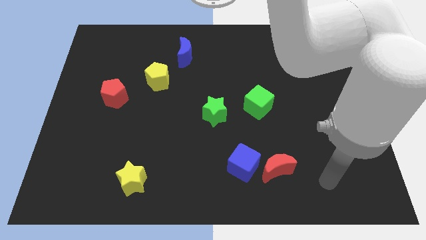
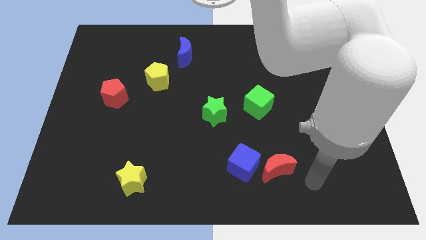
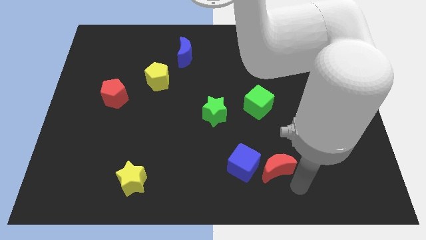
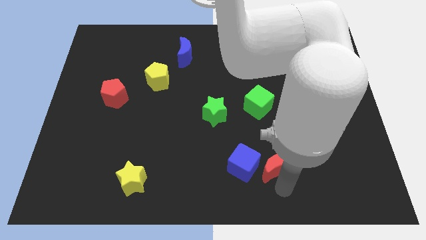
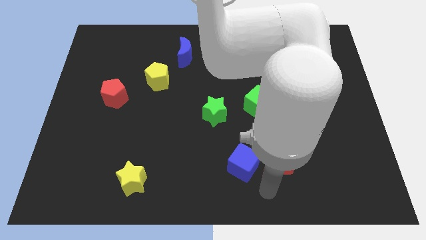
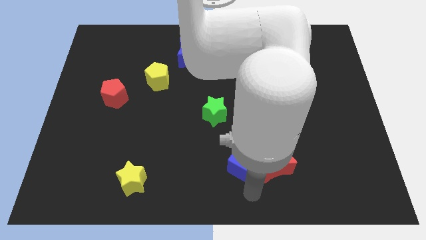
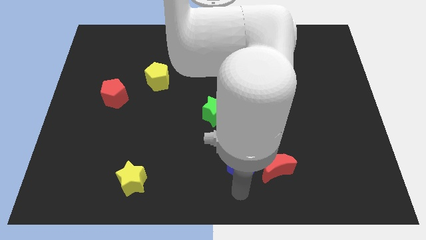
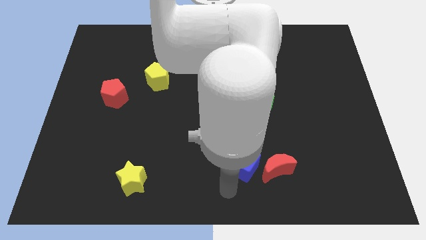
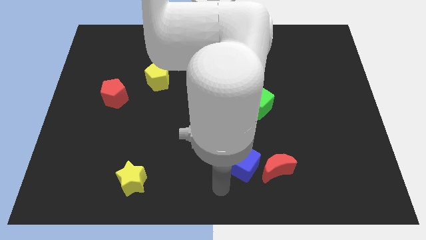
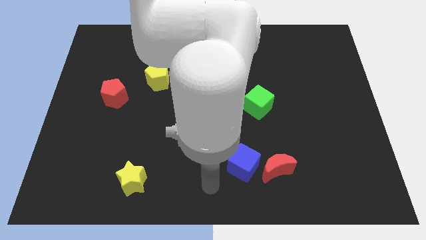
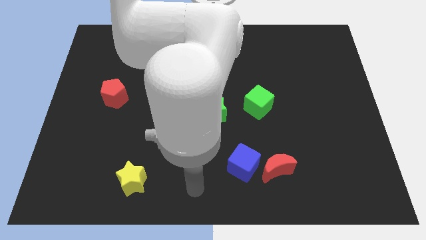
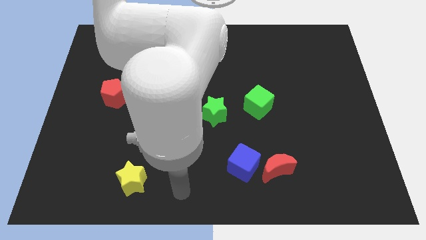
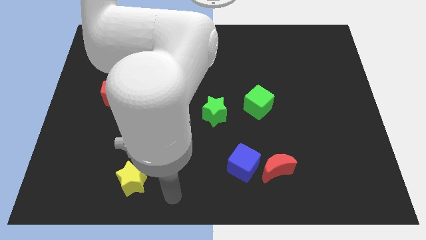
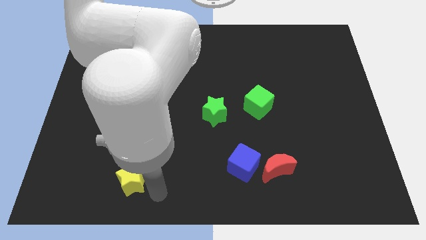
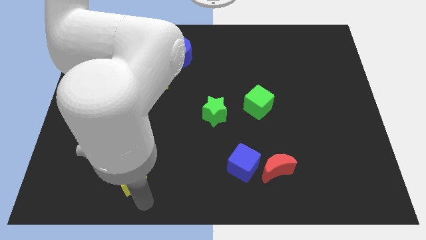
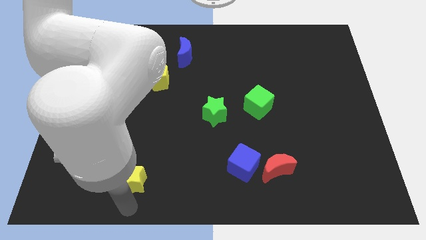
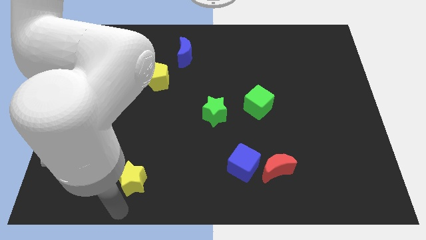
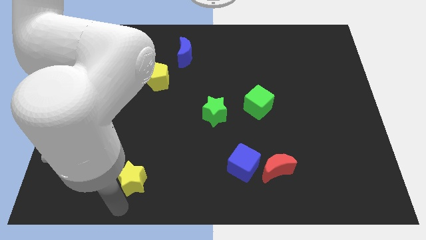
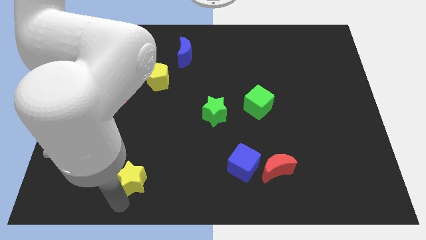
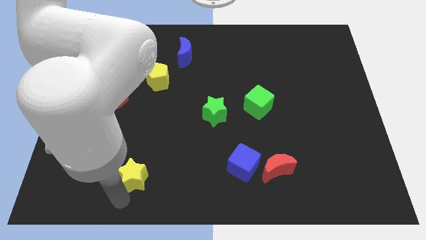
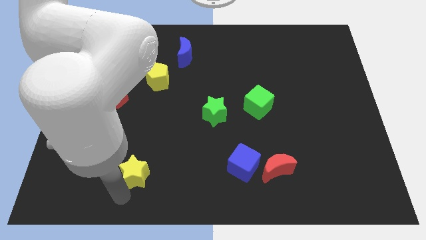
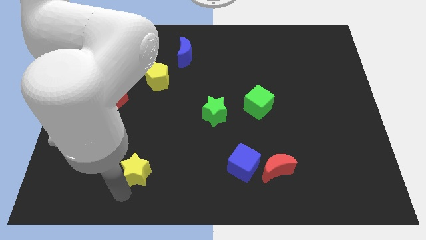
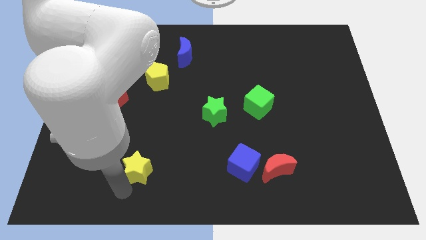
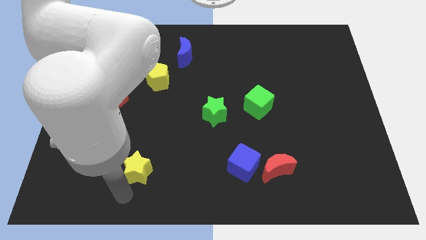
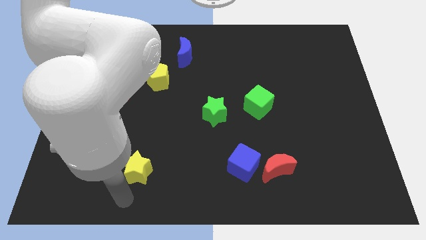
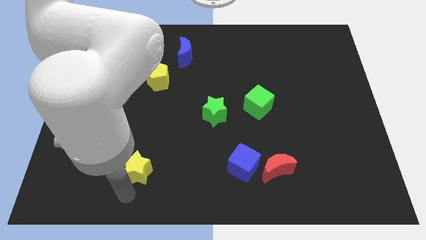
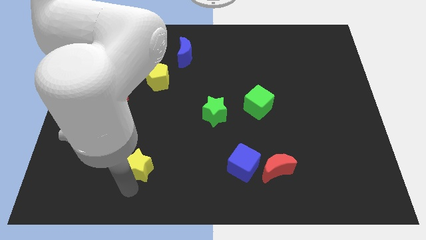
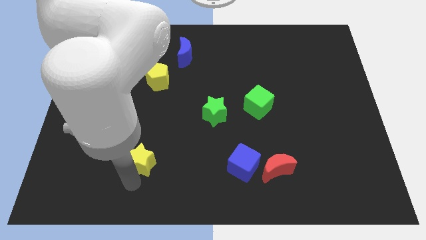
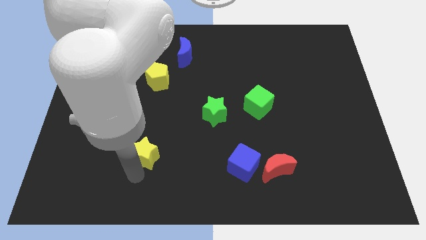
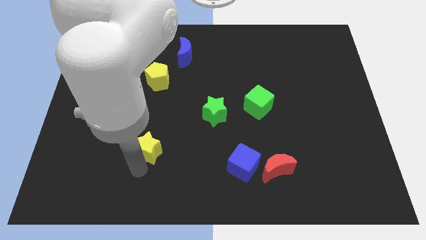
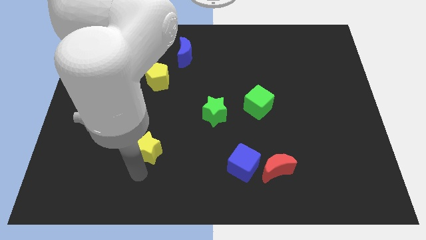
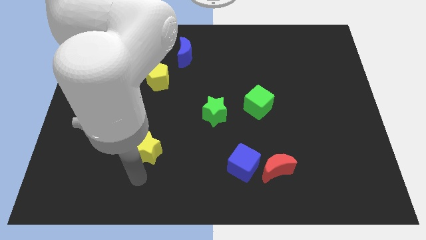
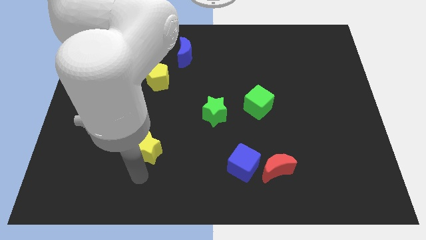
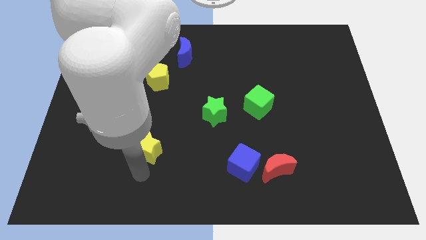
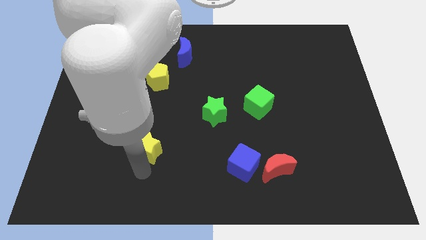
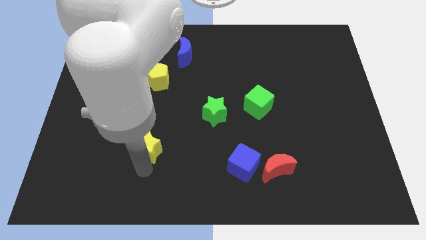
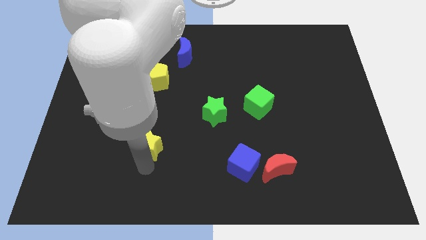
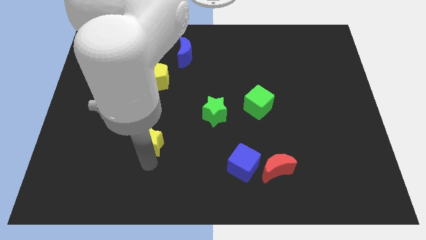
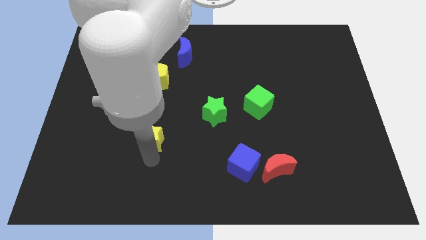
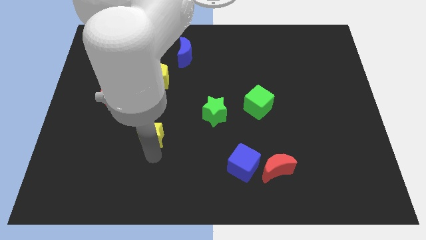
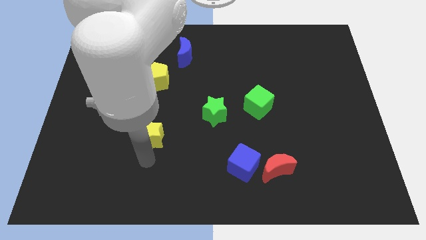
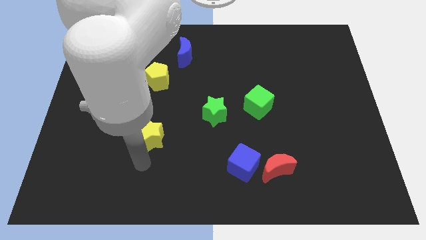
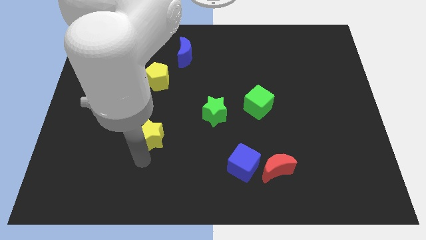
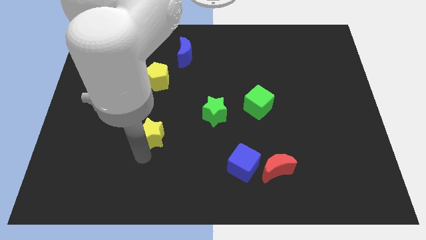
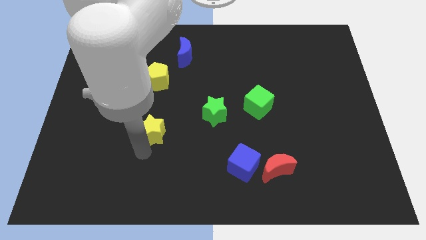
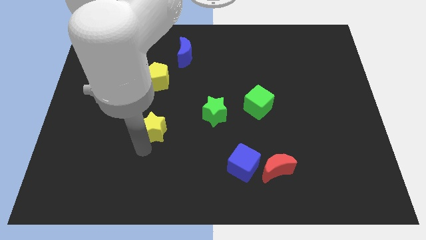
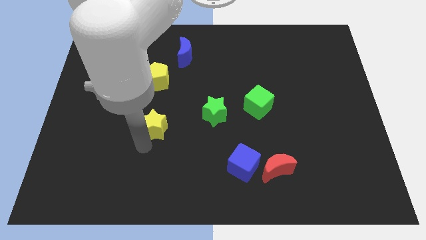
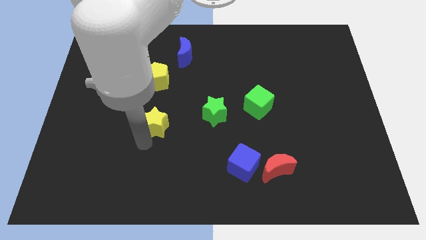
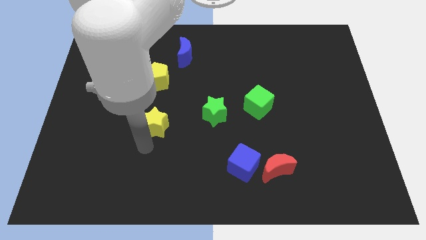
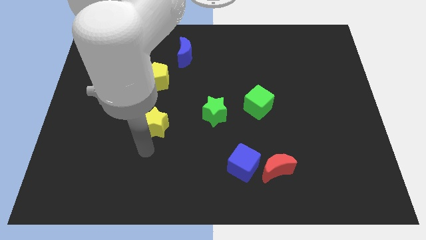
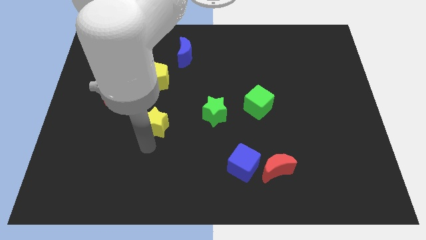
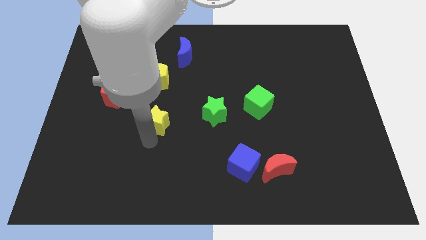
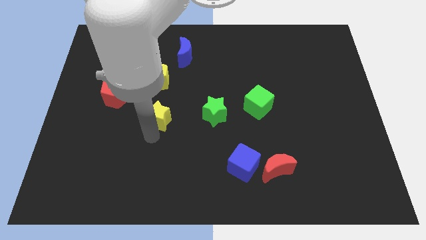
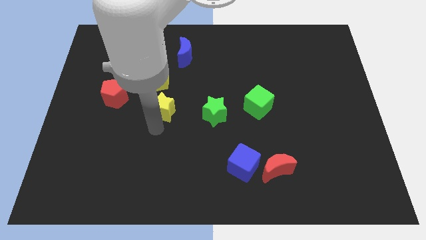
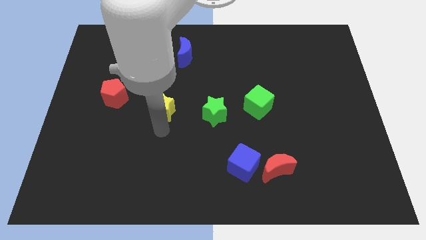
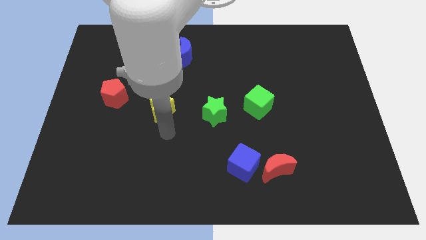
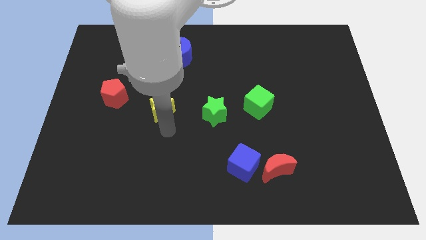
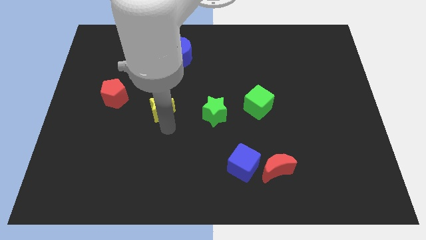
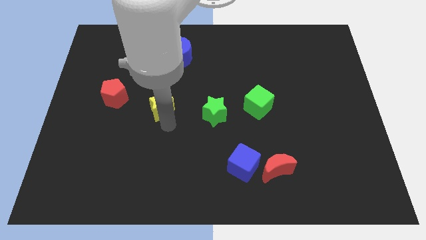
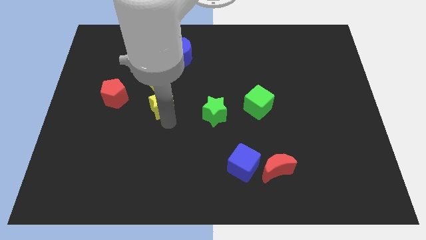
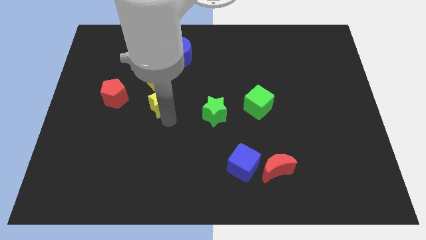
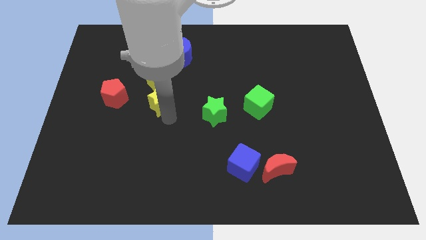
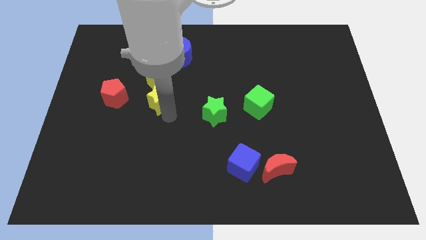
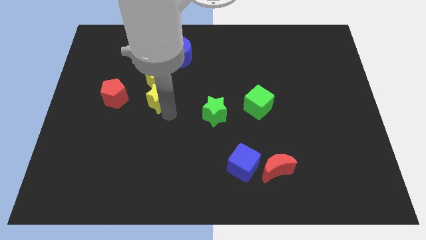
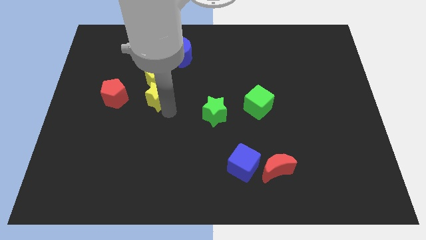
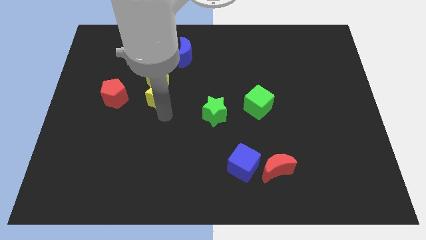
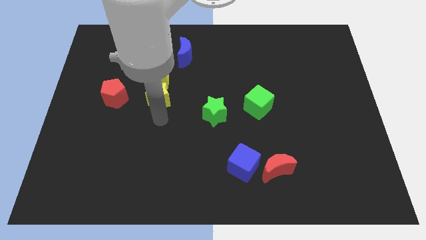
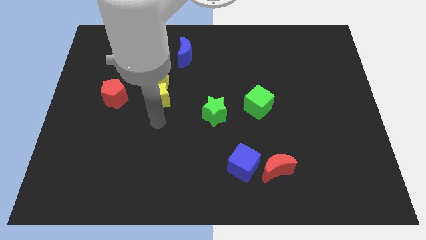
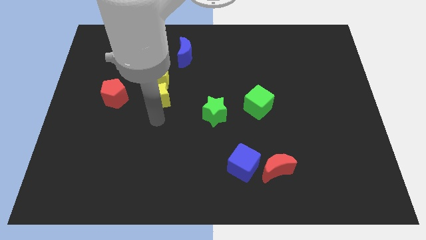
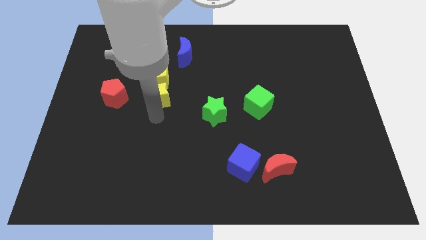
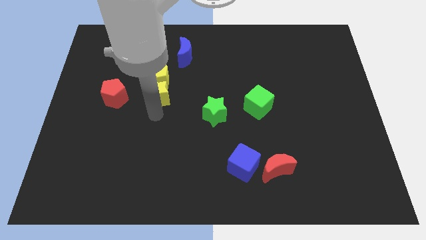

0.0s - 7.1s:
put the yellow star next to the yellow pentagon

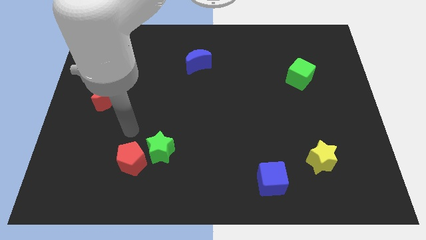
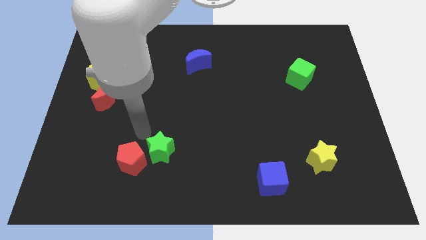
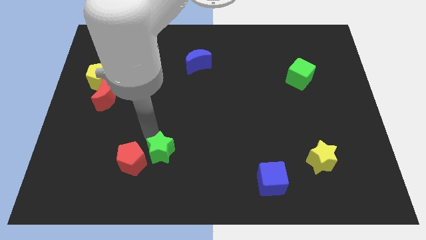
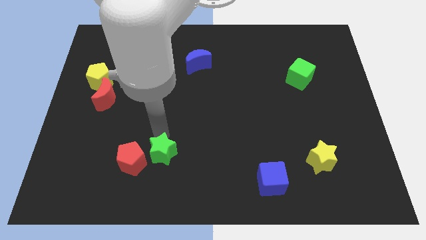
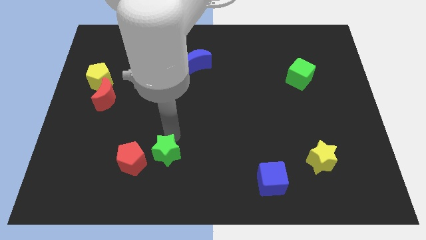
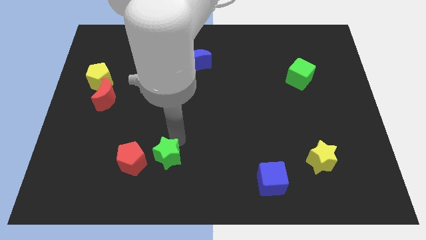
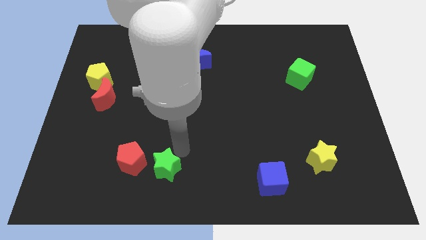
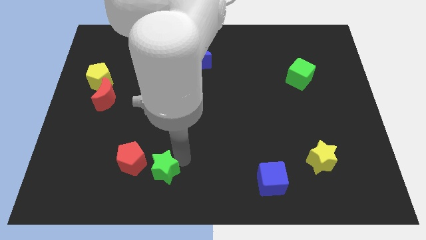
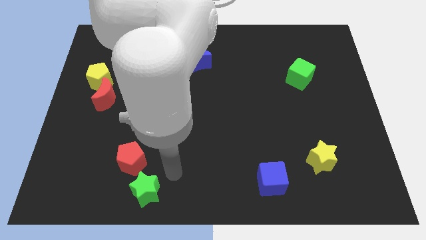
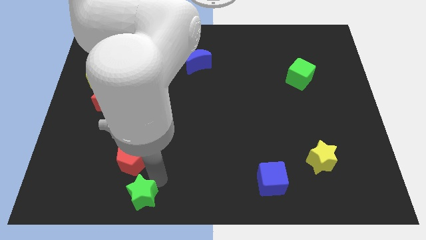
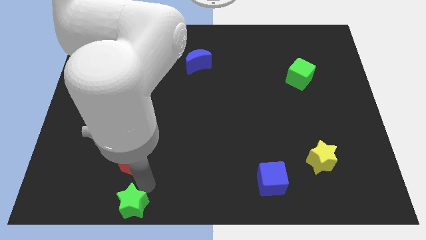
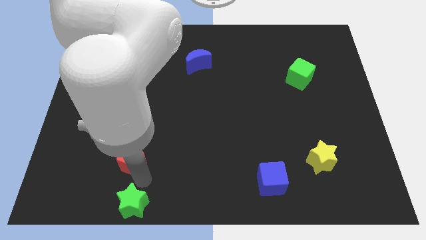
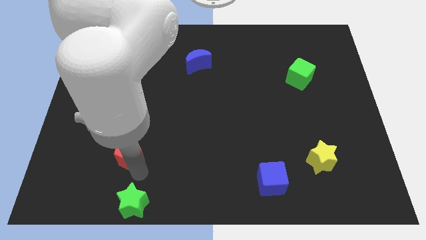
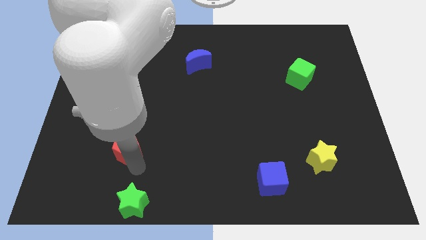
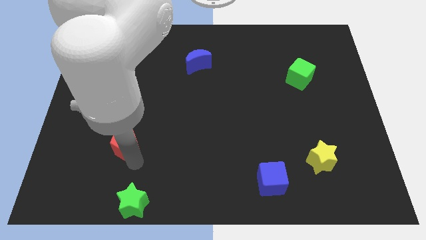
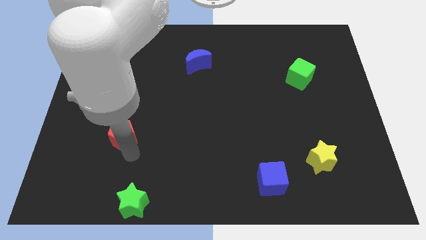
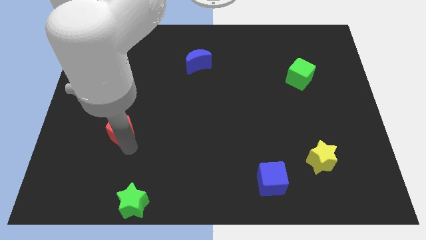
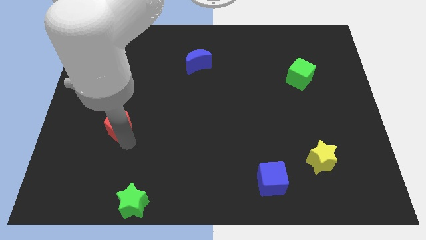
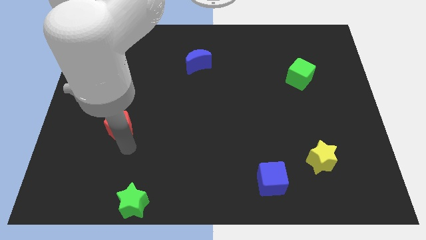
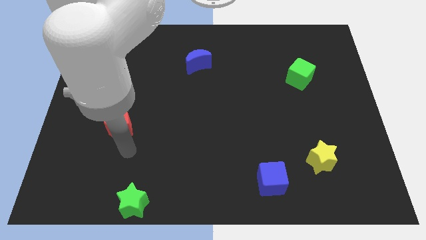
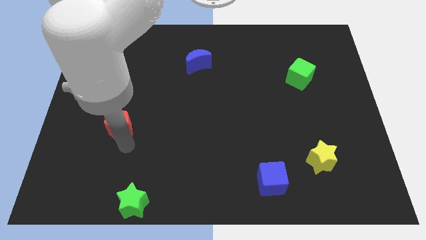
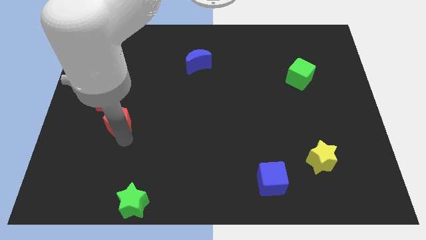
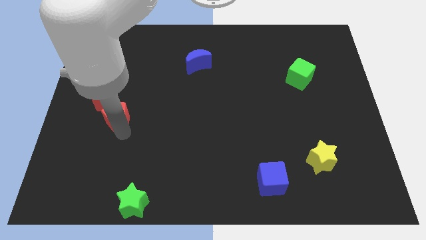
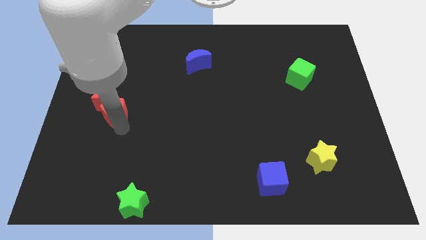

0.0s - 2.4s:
slide the red pentagon towards the red moon
